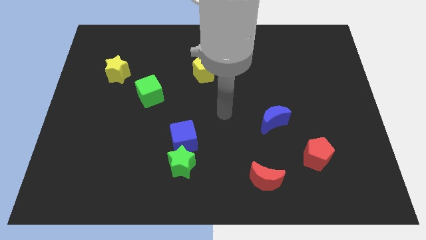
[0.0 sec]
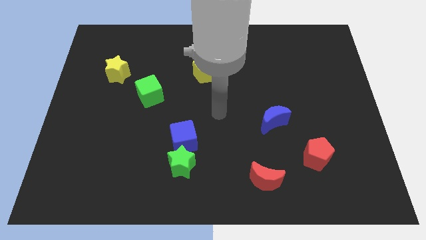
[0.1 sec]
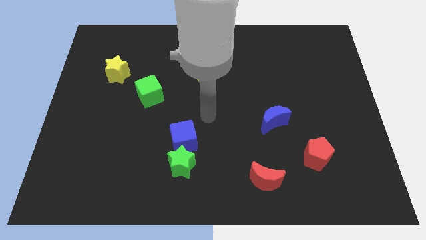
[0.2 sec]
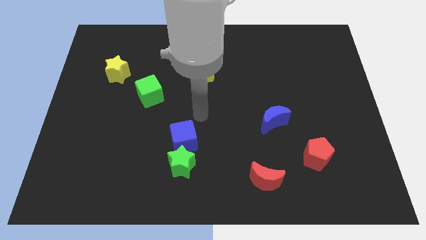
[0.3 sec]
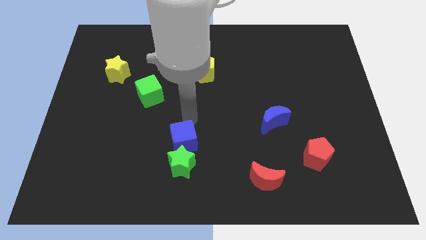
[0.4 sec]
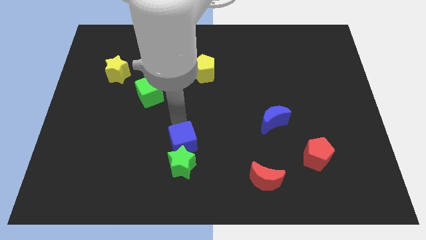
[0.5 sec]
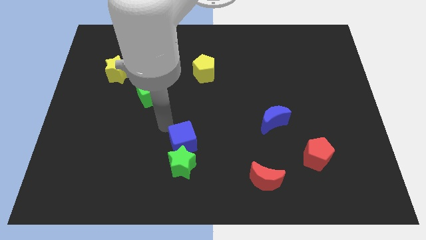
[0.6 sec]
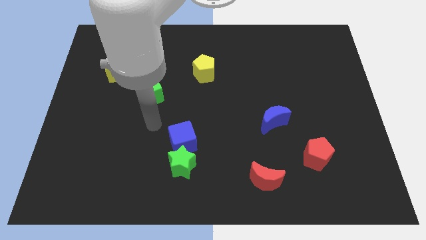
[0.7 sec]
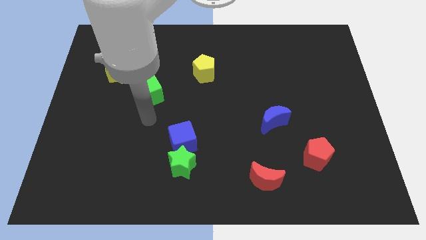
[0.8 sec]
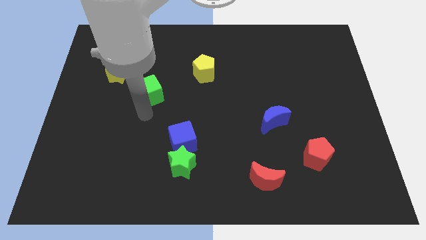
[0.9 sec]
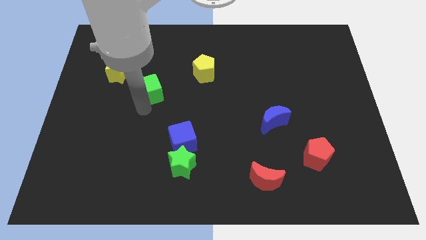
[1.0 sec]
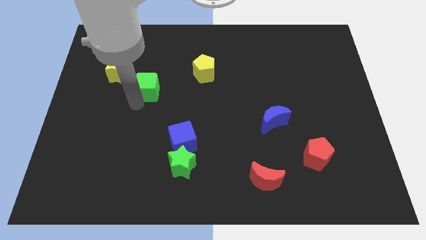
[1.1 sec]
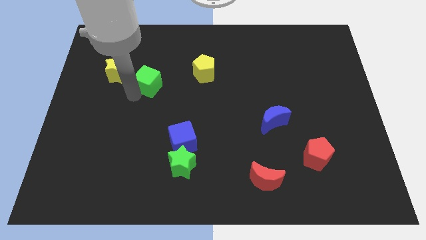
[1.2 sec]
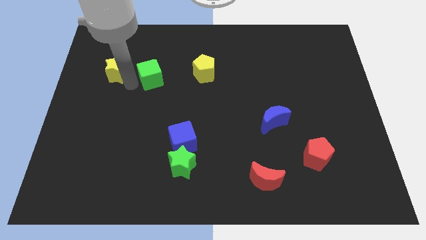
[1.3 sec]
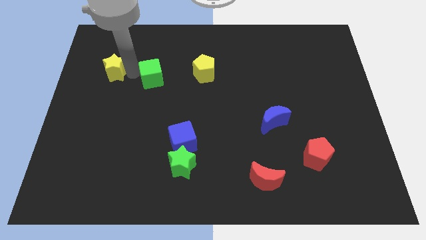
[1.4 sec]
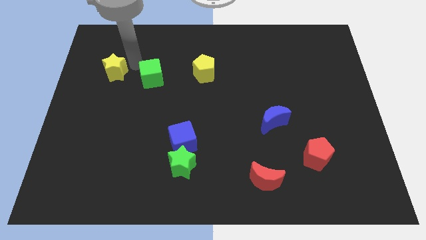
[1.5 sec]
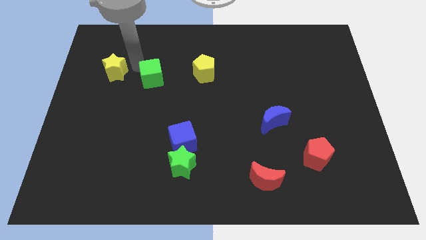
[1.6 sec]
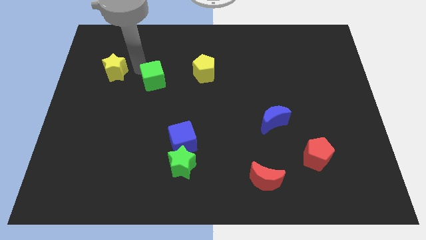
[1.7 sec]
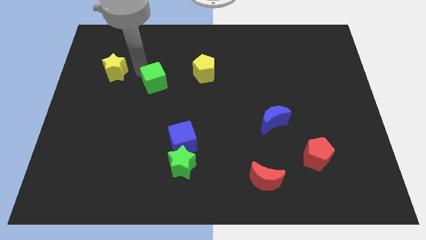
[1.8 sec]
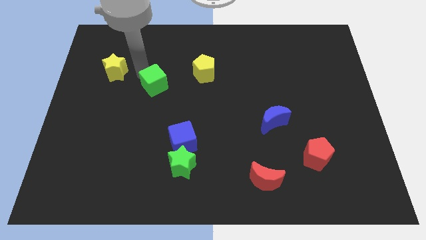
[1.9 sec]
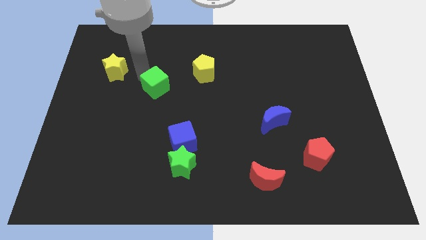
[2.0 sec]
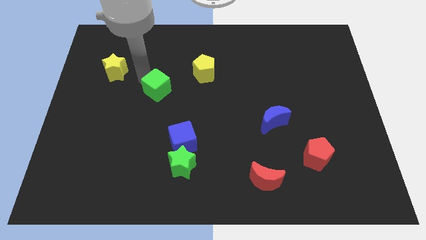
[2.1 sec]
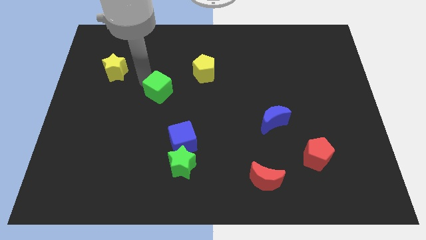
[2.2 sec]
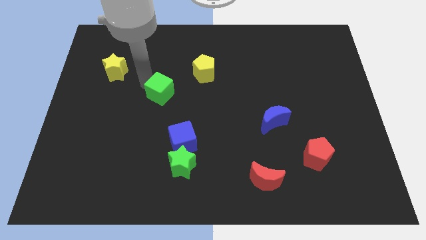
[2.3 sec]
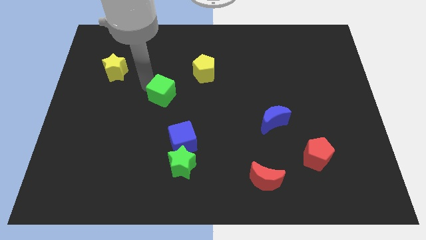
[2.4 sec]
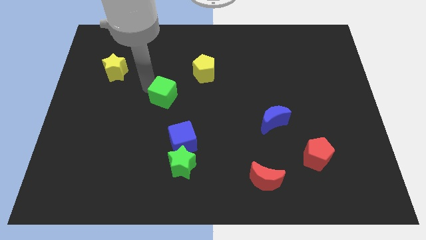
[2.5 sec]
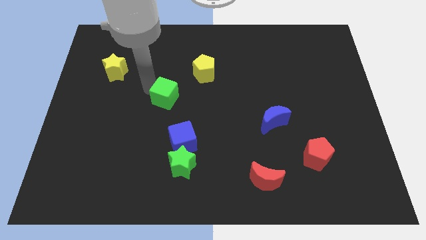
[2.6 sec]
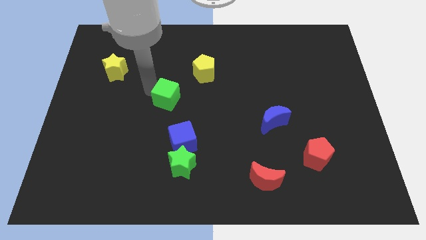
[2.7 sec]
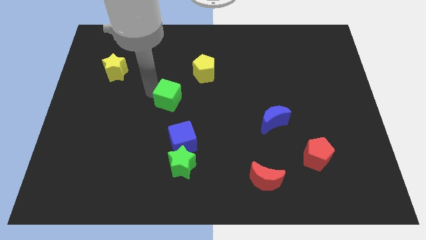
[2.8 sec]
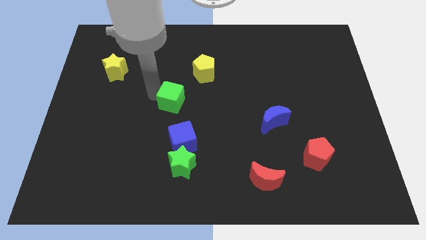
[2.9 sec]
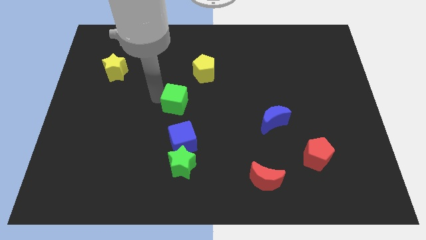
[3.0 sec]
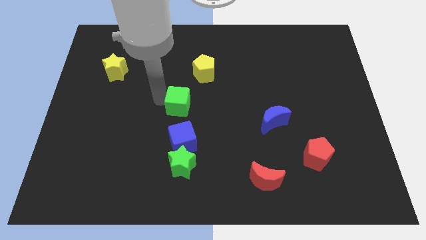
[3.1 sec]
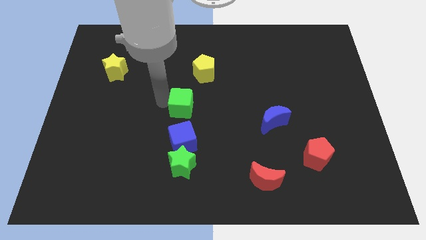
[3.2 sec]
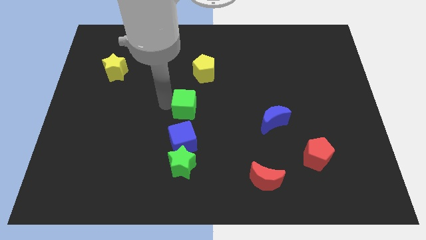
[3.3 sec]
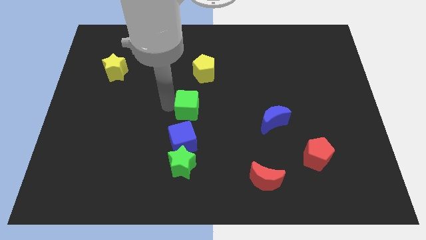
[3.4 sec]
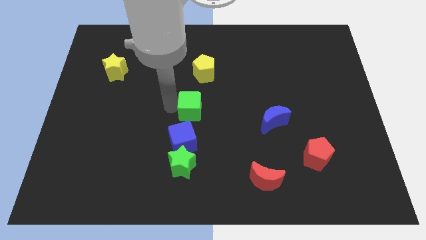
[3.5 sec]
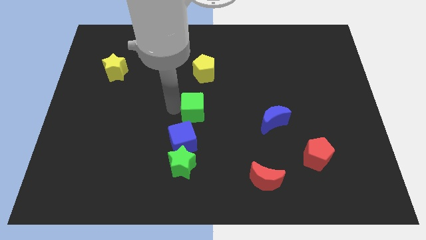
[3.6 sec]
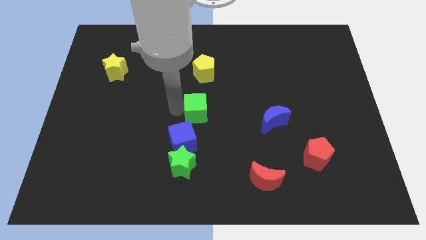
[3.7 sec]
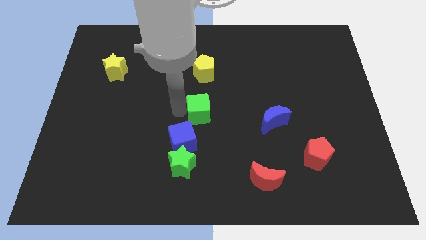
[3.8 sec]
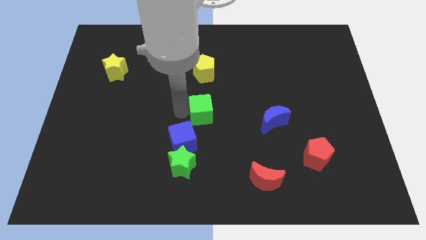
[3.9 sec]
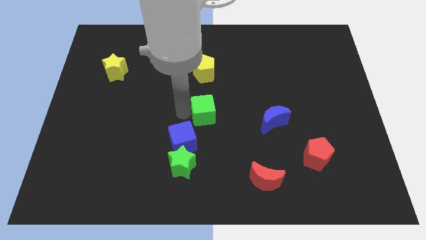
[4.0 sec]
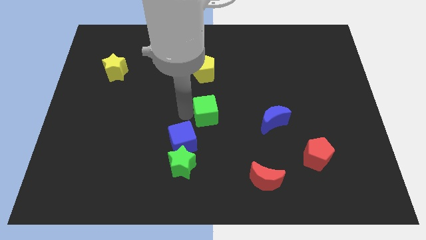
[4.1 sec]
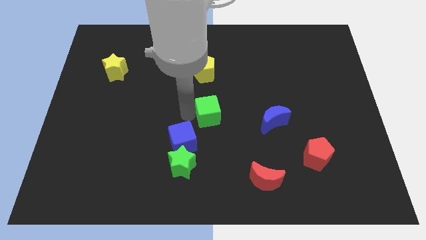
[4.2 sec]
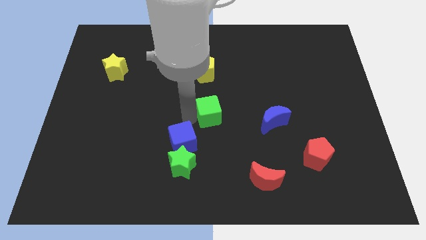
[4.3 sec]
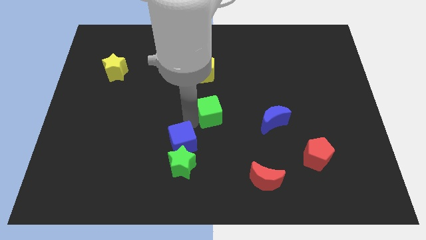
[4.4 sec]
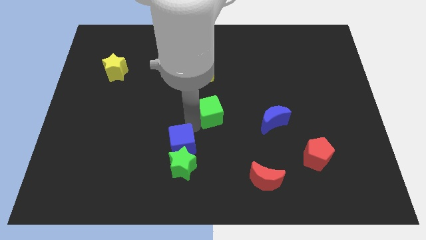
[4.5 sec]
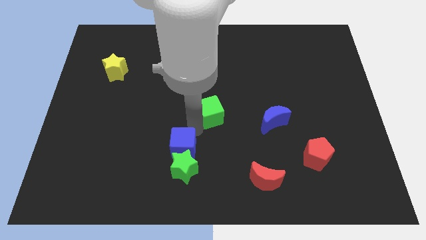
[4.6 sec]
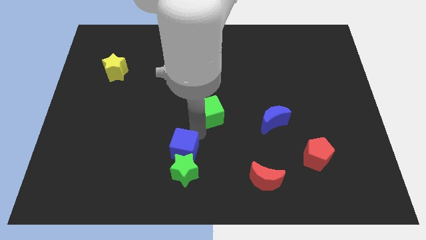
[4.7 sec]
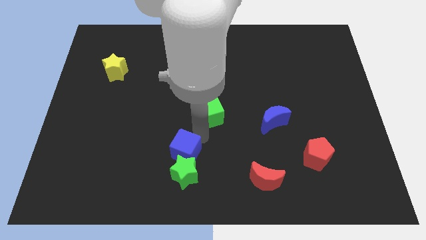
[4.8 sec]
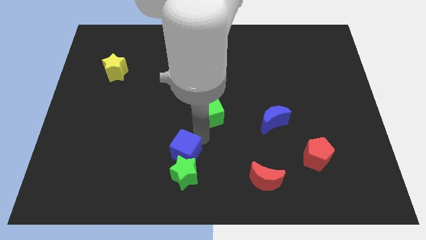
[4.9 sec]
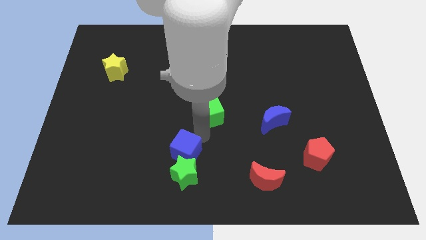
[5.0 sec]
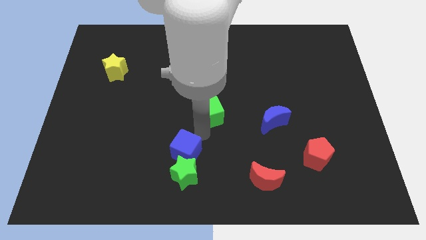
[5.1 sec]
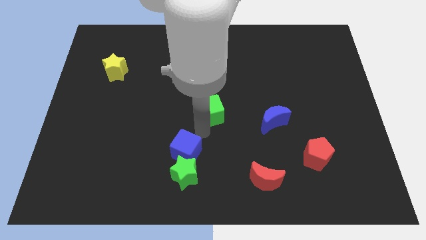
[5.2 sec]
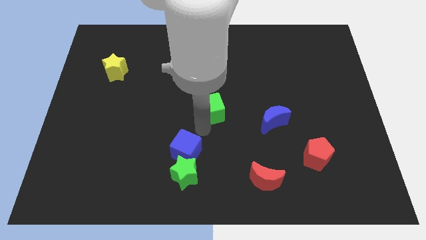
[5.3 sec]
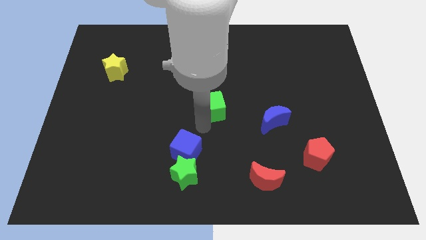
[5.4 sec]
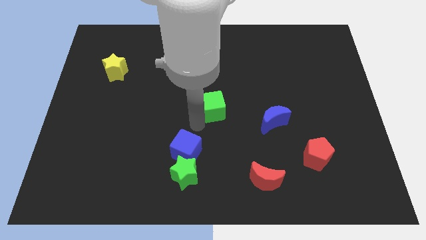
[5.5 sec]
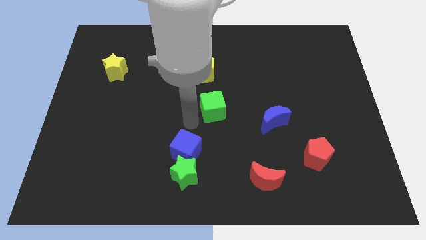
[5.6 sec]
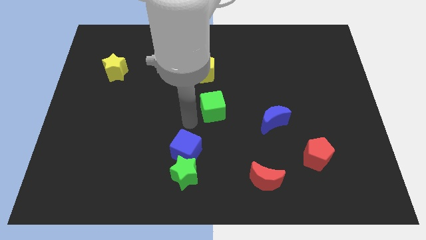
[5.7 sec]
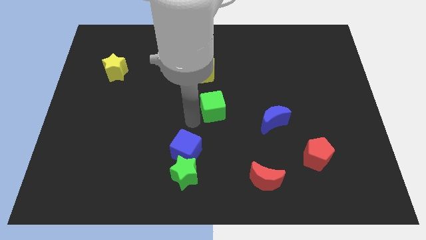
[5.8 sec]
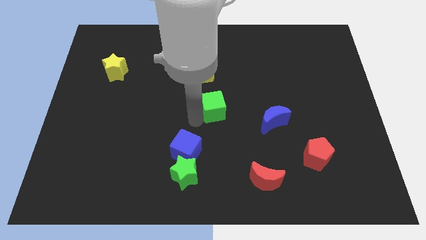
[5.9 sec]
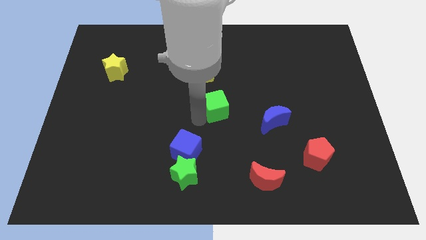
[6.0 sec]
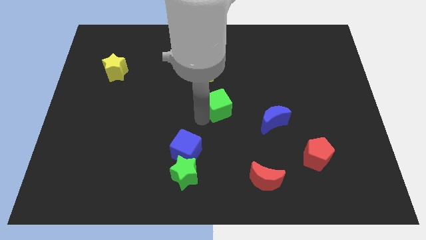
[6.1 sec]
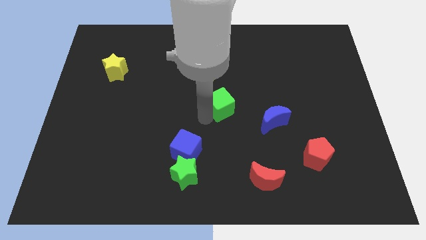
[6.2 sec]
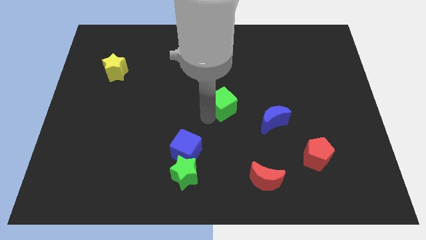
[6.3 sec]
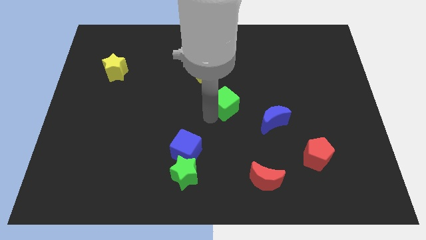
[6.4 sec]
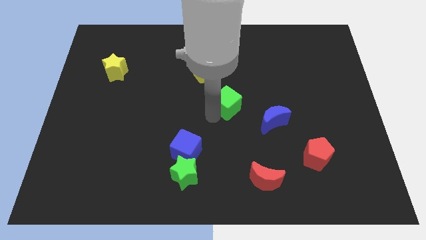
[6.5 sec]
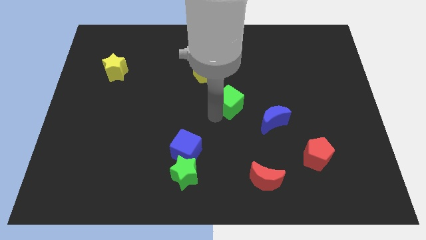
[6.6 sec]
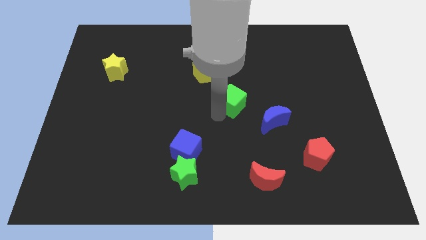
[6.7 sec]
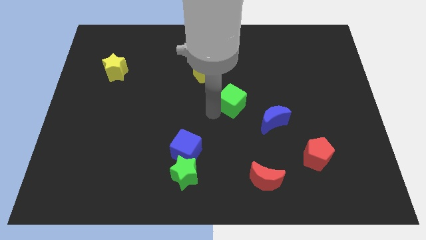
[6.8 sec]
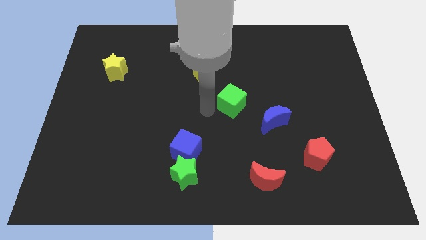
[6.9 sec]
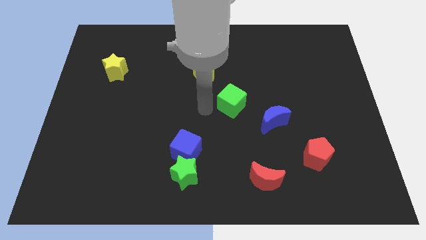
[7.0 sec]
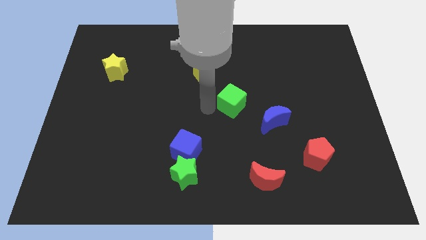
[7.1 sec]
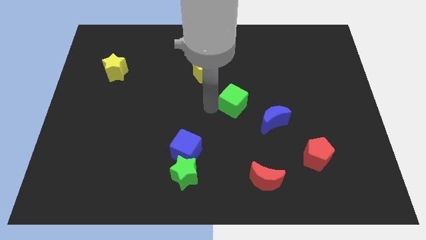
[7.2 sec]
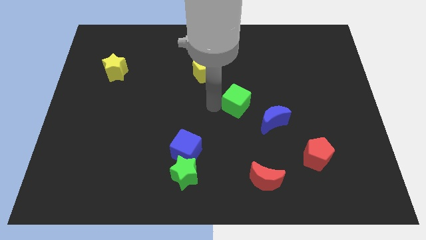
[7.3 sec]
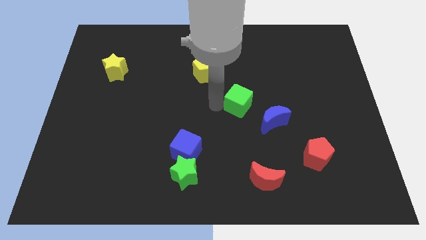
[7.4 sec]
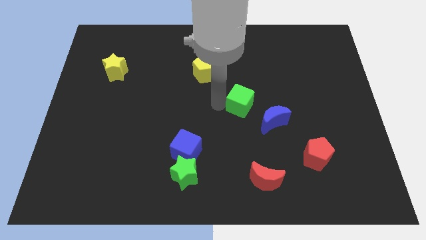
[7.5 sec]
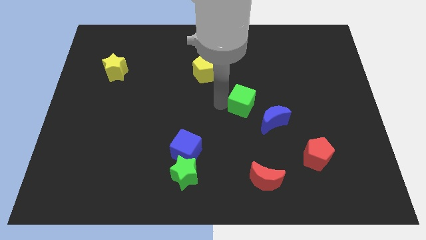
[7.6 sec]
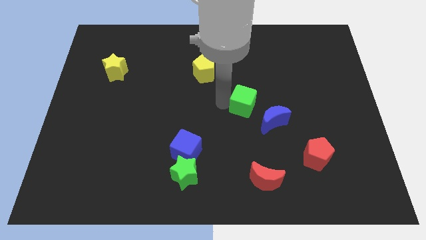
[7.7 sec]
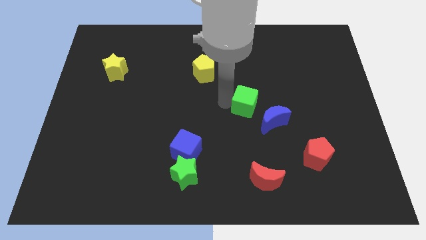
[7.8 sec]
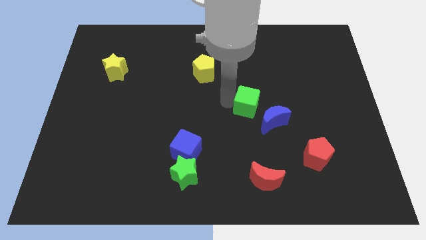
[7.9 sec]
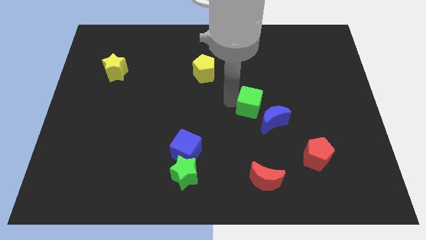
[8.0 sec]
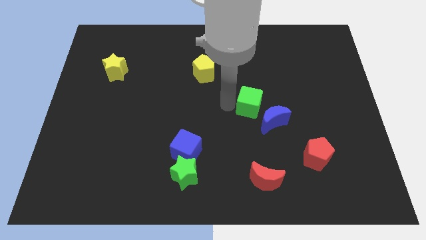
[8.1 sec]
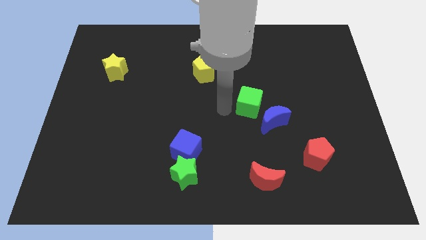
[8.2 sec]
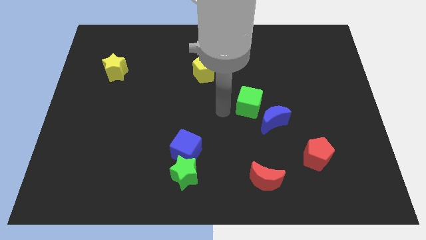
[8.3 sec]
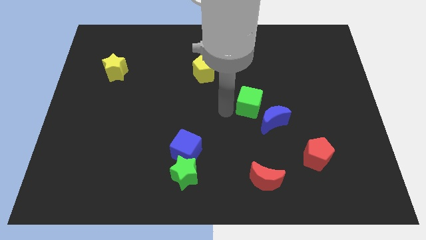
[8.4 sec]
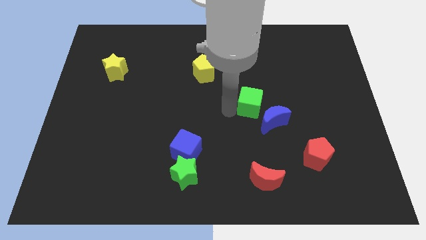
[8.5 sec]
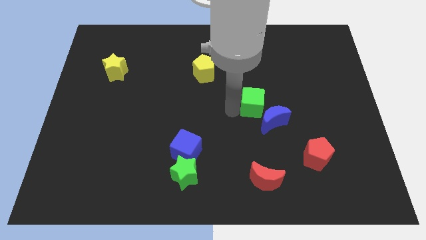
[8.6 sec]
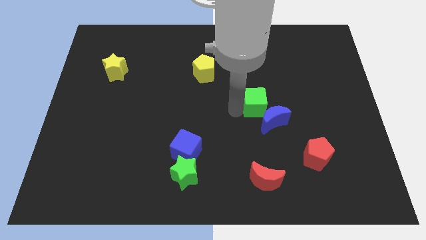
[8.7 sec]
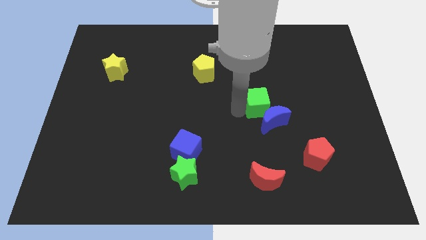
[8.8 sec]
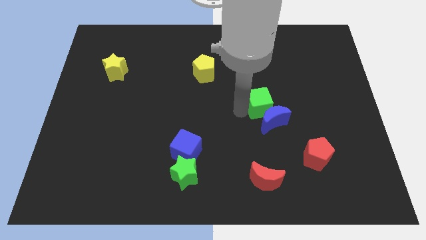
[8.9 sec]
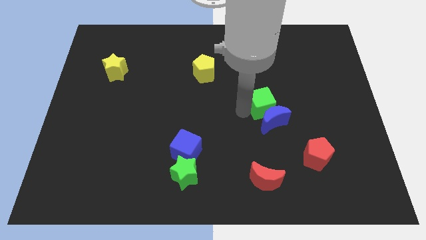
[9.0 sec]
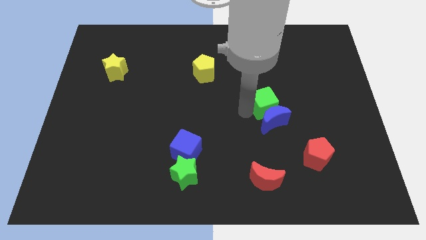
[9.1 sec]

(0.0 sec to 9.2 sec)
move the green cube to the top right of the blue moon
